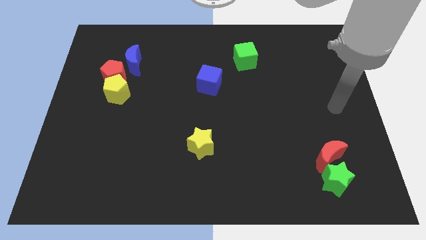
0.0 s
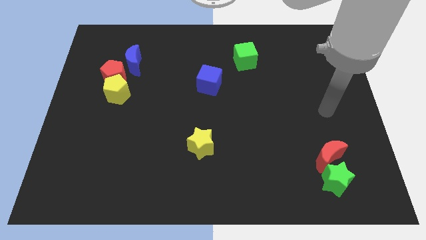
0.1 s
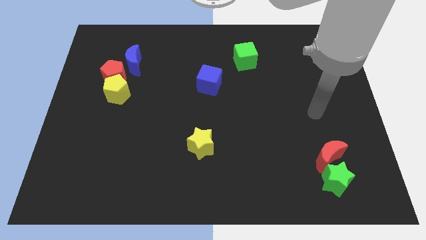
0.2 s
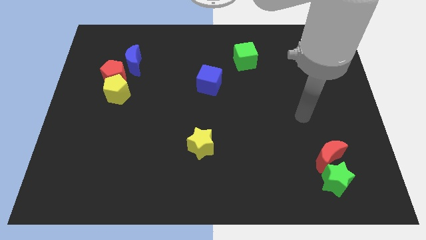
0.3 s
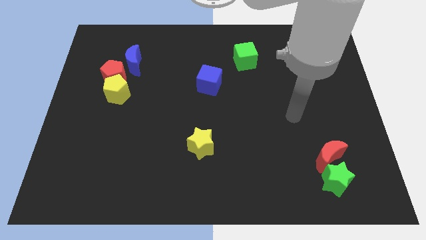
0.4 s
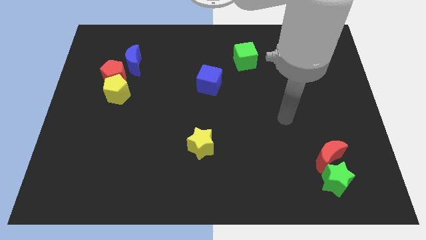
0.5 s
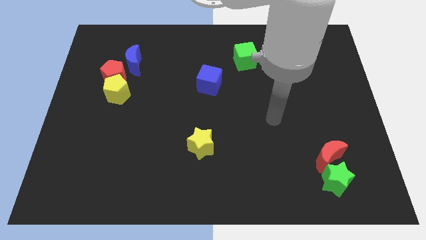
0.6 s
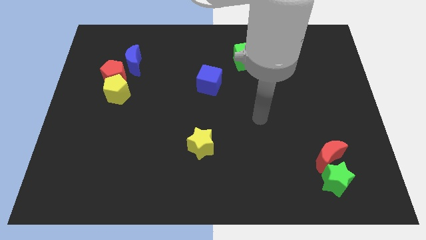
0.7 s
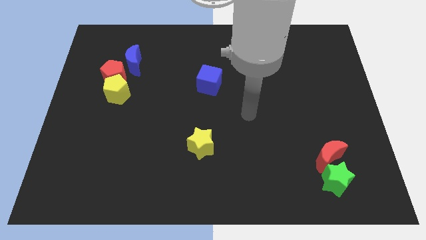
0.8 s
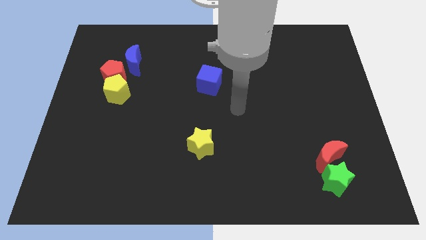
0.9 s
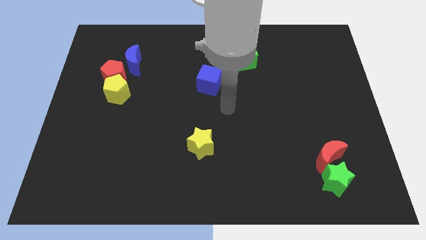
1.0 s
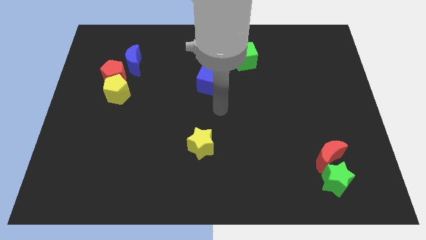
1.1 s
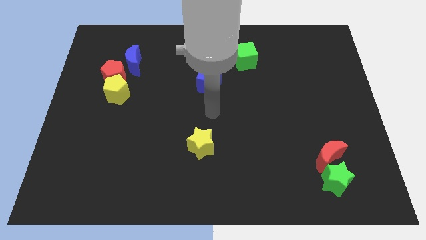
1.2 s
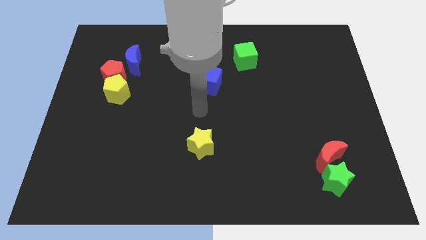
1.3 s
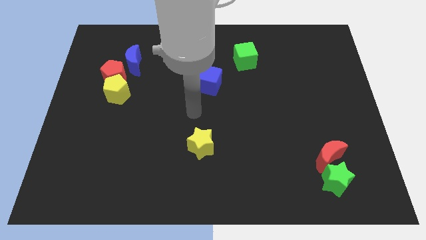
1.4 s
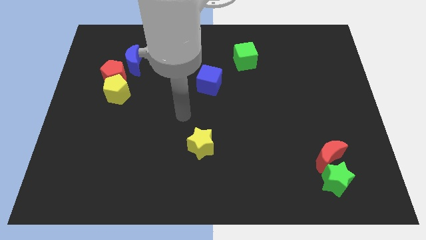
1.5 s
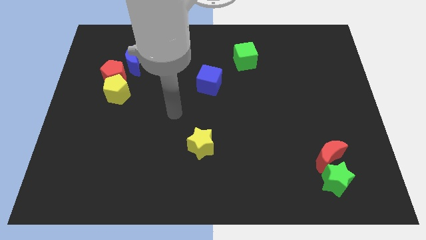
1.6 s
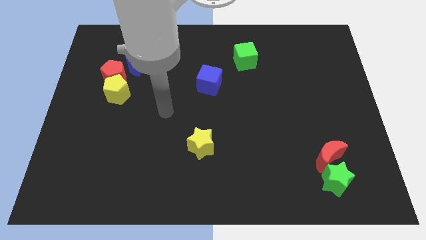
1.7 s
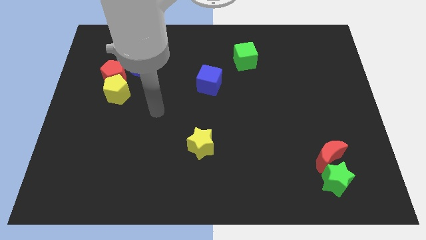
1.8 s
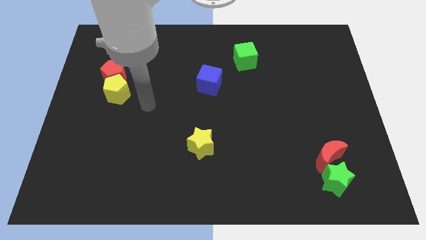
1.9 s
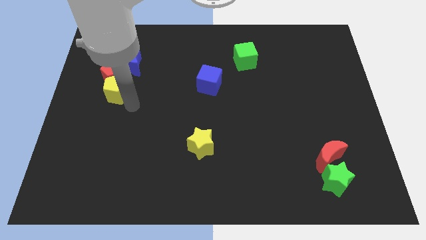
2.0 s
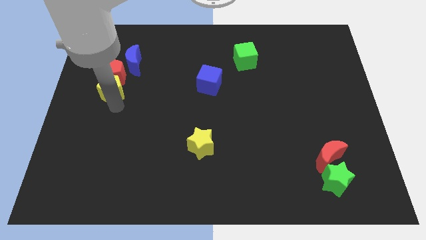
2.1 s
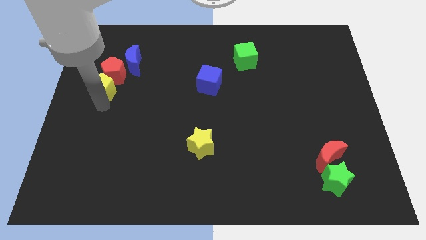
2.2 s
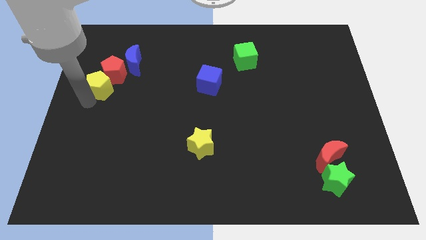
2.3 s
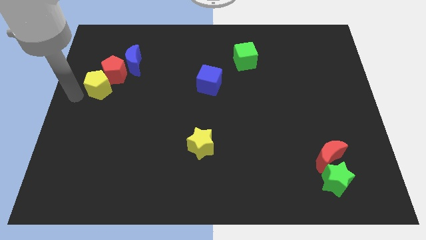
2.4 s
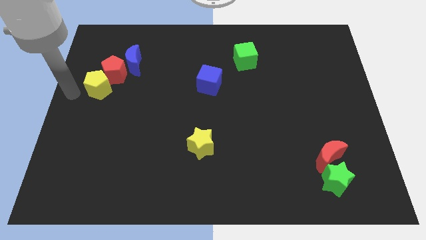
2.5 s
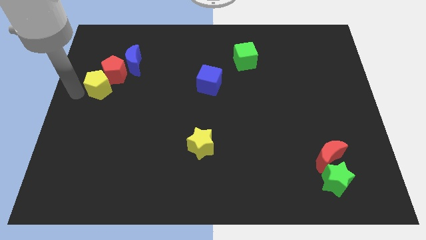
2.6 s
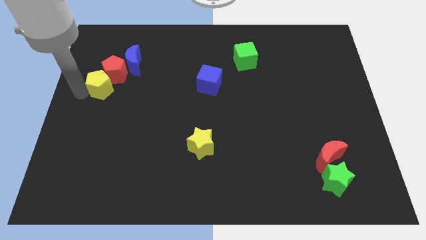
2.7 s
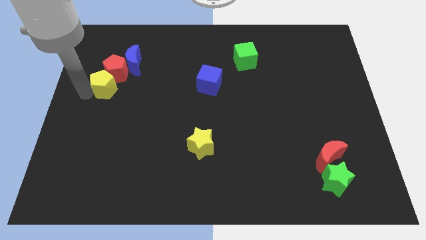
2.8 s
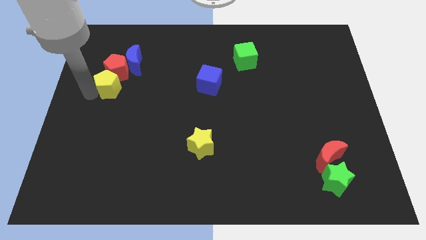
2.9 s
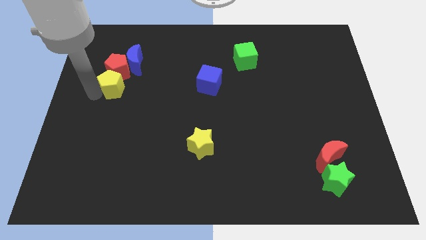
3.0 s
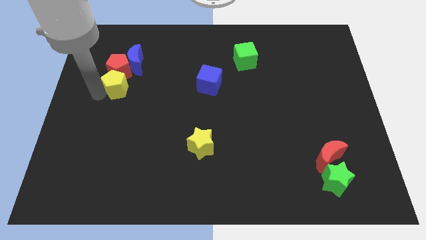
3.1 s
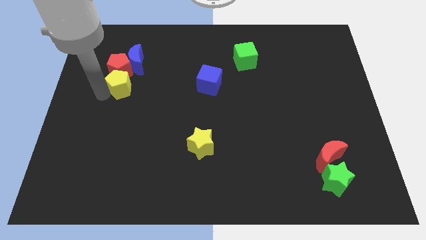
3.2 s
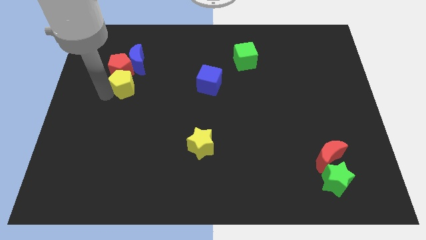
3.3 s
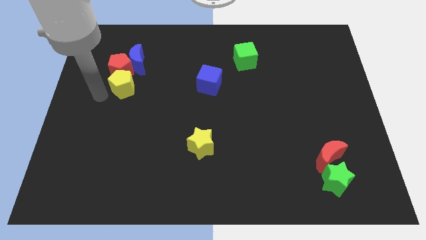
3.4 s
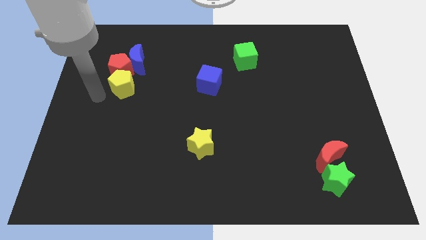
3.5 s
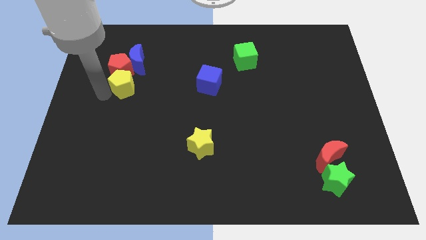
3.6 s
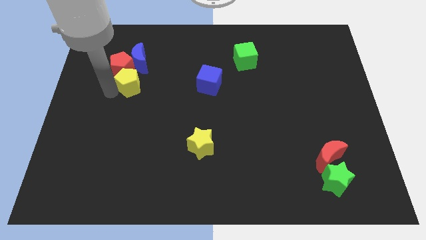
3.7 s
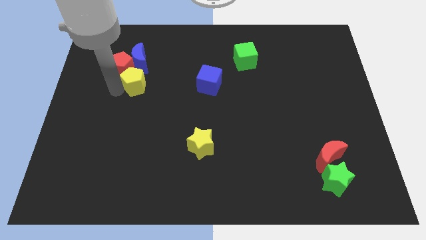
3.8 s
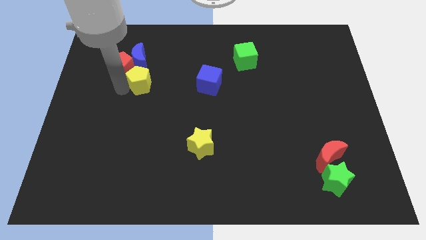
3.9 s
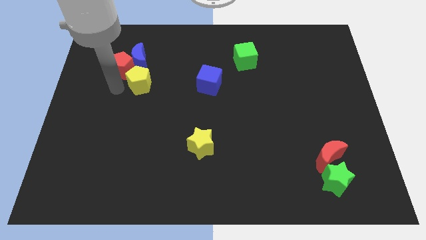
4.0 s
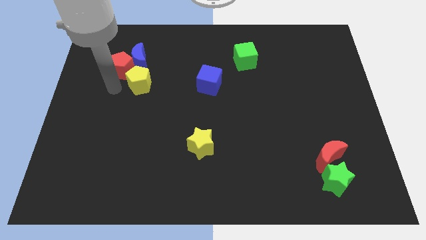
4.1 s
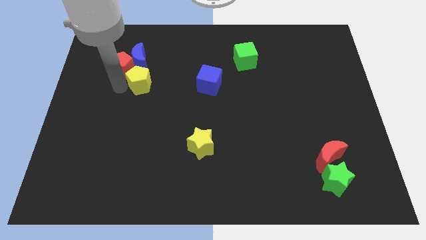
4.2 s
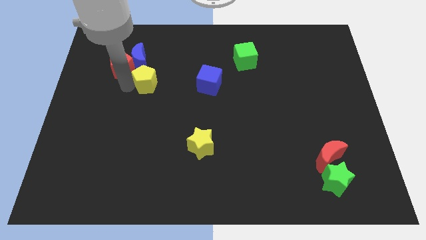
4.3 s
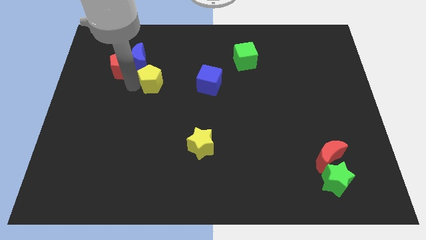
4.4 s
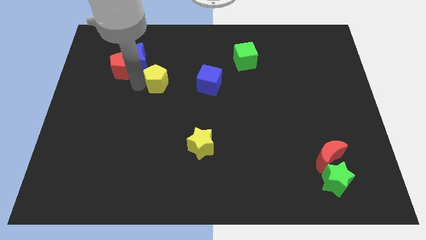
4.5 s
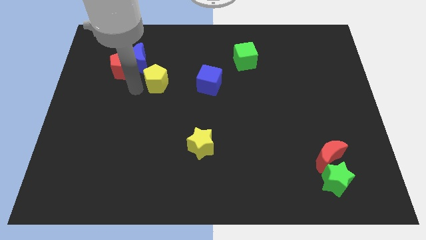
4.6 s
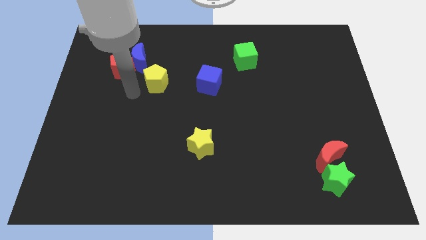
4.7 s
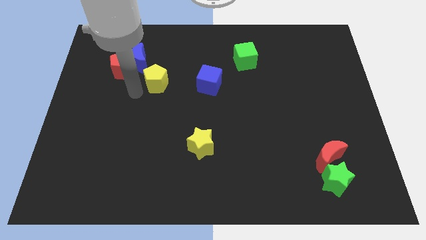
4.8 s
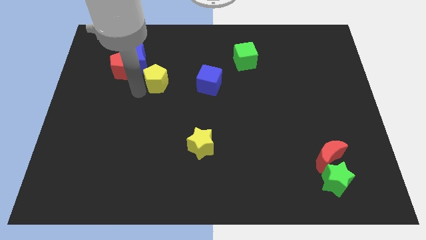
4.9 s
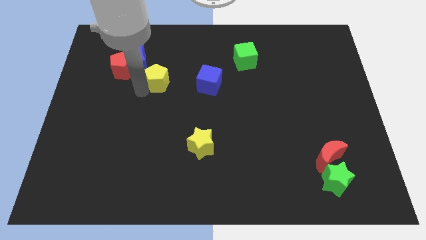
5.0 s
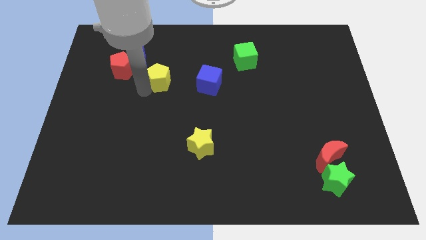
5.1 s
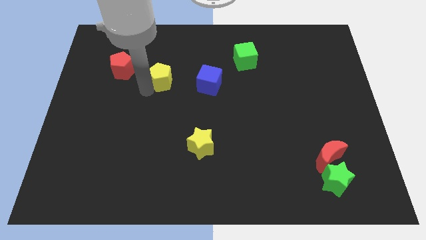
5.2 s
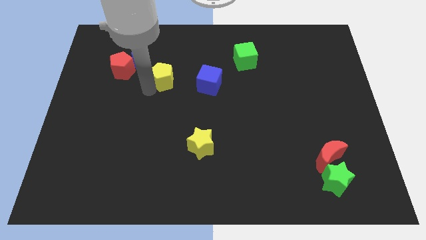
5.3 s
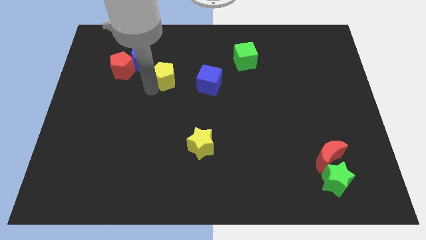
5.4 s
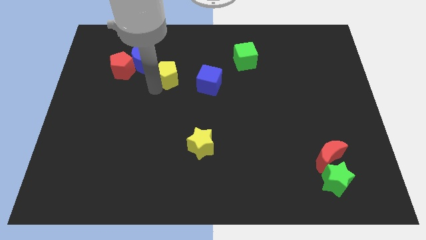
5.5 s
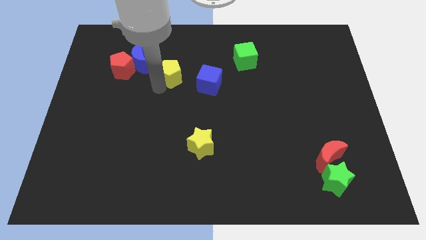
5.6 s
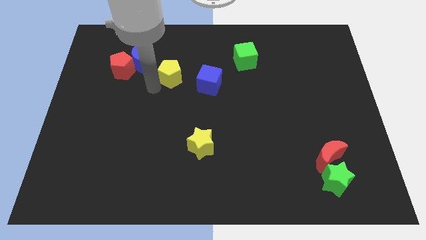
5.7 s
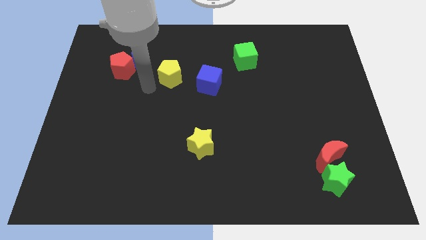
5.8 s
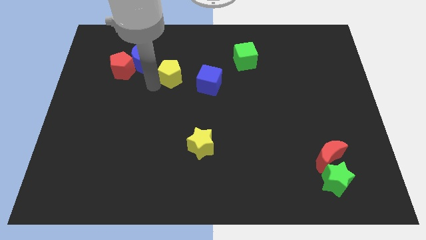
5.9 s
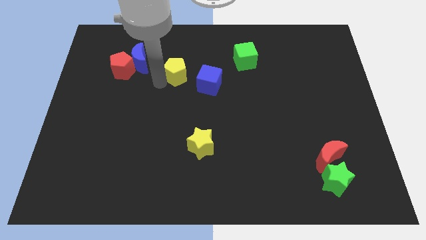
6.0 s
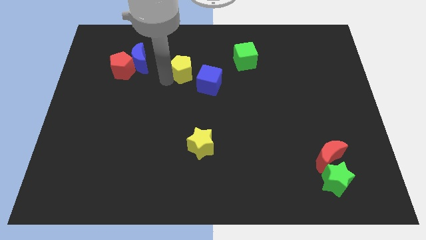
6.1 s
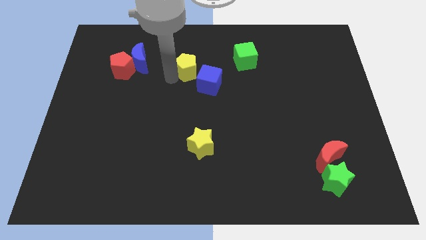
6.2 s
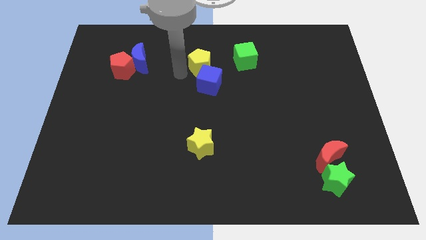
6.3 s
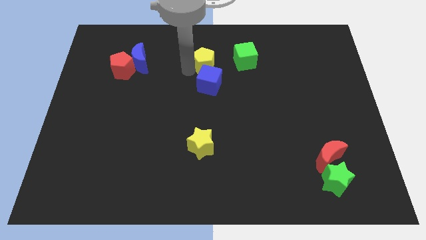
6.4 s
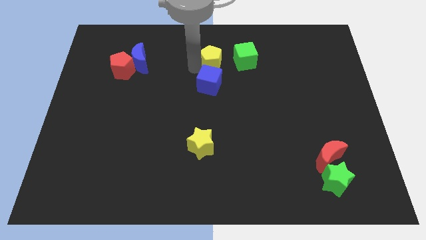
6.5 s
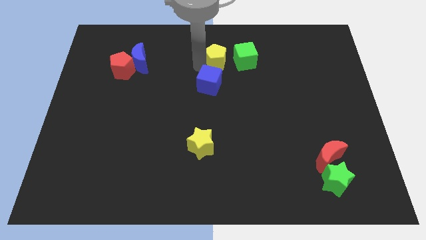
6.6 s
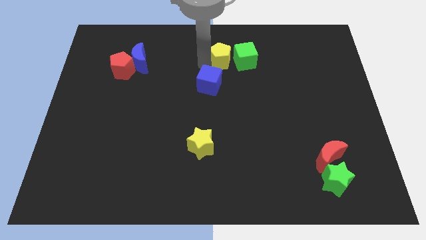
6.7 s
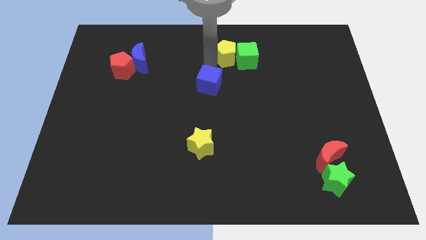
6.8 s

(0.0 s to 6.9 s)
push the yellow pentagon close to the green cube

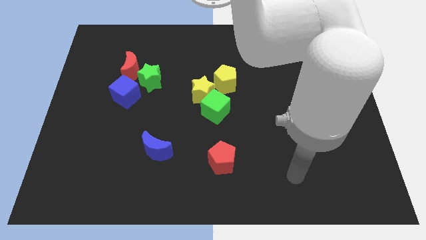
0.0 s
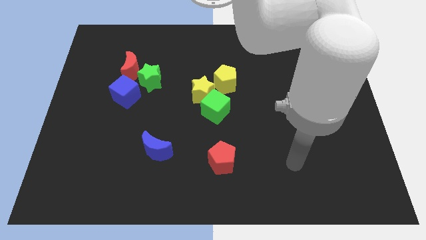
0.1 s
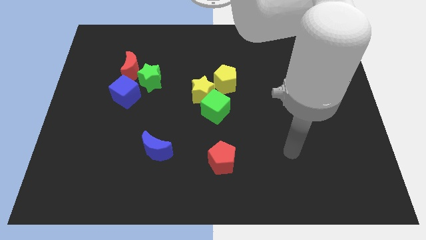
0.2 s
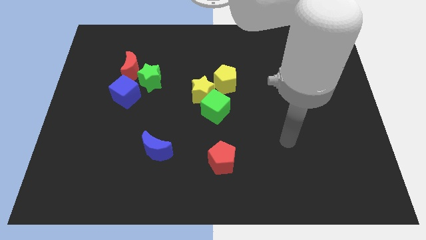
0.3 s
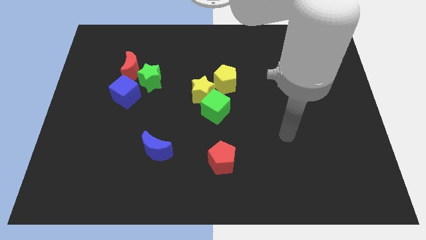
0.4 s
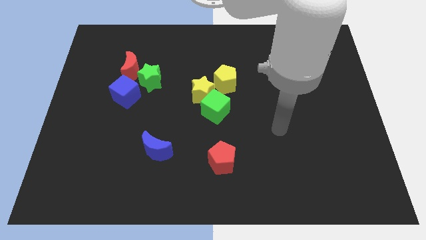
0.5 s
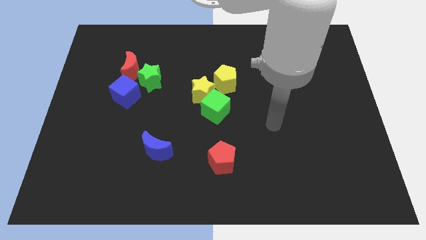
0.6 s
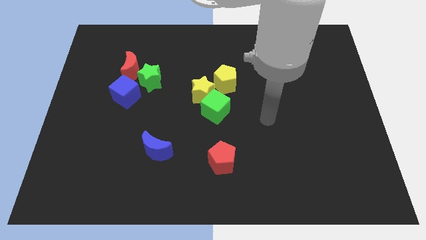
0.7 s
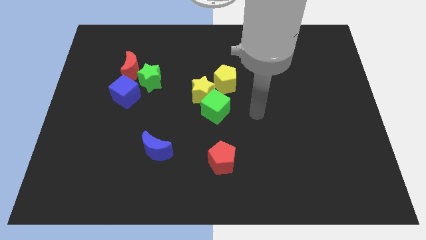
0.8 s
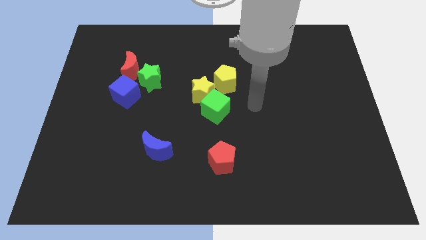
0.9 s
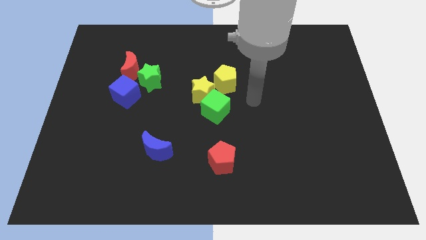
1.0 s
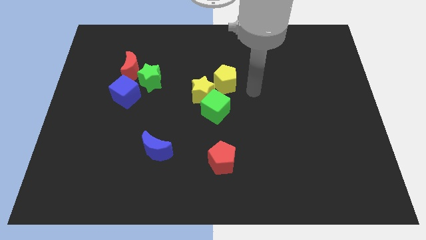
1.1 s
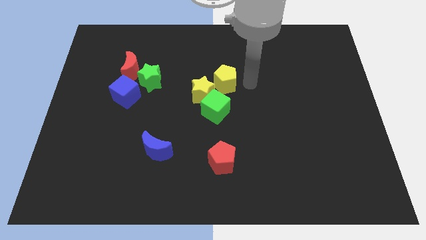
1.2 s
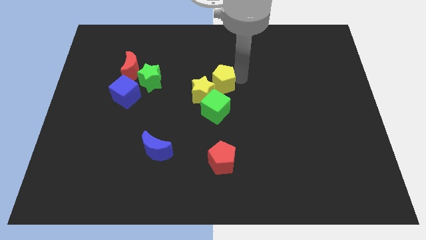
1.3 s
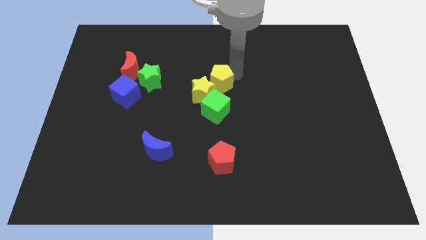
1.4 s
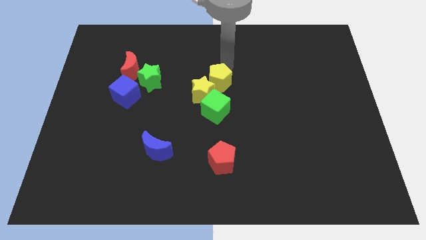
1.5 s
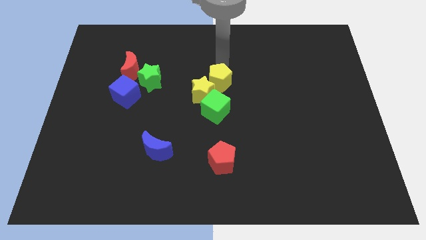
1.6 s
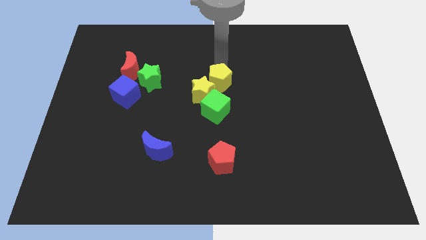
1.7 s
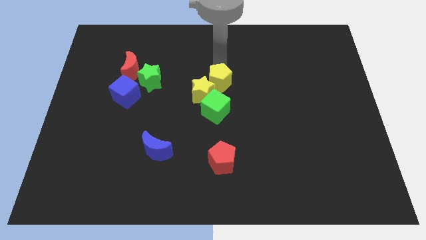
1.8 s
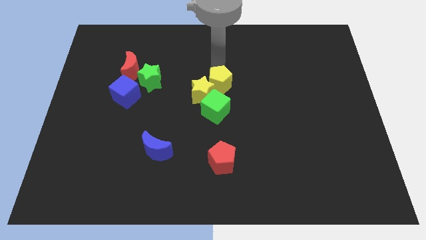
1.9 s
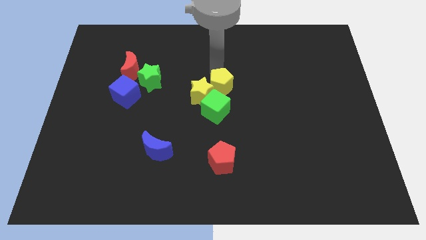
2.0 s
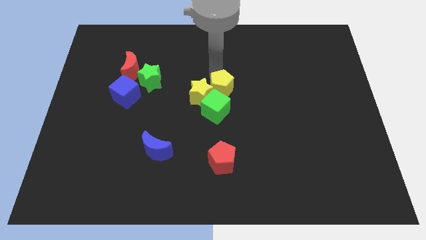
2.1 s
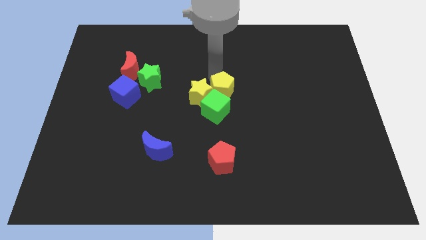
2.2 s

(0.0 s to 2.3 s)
move the yellow pentagon towards the green cube
